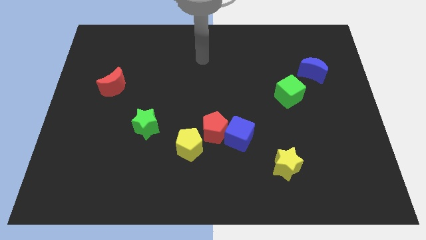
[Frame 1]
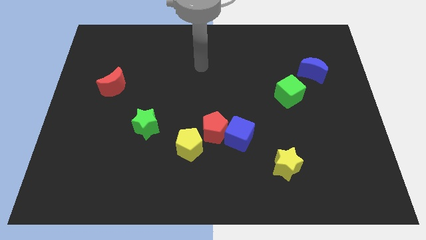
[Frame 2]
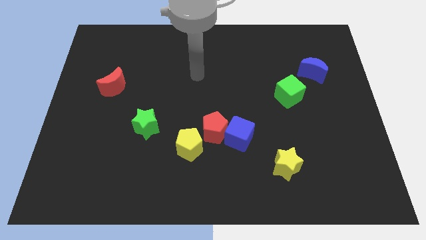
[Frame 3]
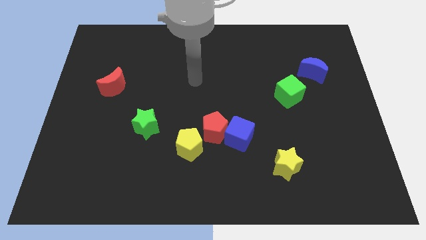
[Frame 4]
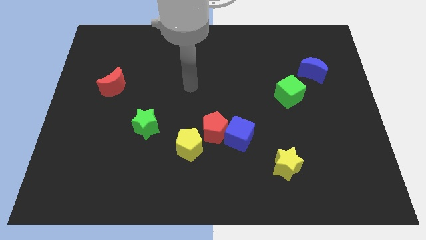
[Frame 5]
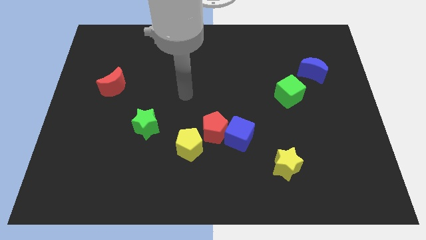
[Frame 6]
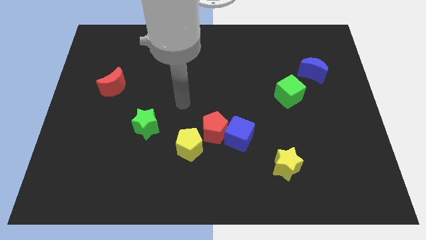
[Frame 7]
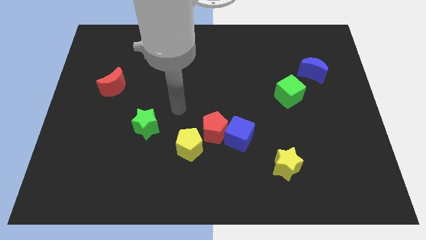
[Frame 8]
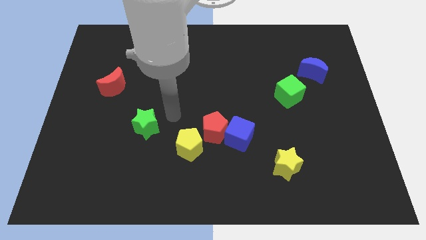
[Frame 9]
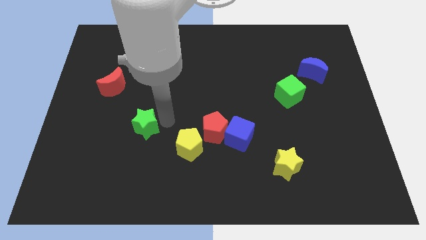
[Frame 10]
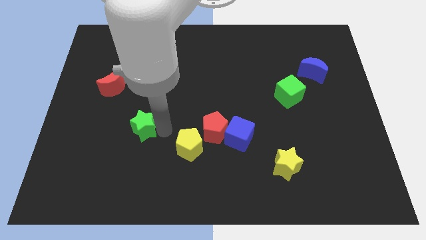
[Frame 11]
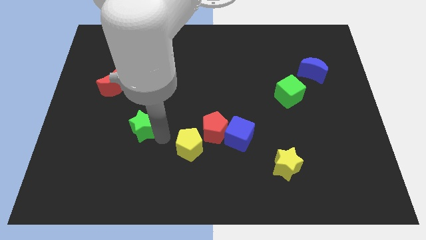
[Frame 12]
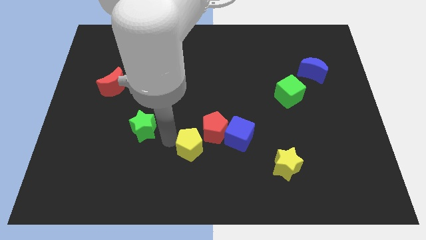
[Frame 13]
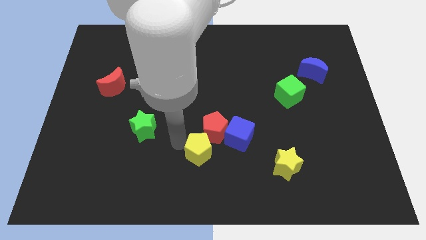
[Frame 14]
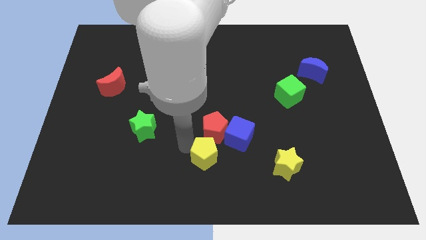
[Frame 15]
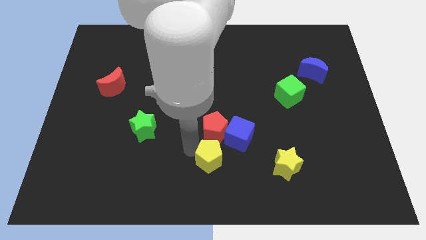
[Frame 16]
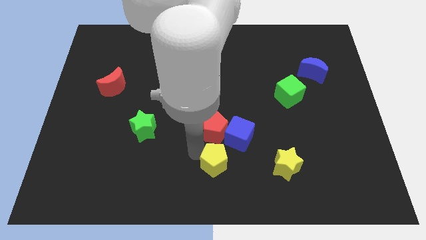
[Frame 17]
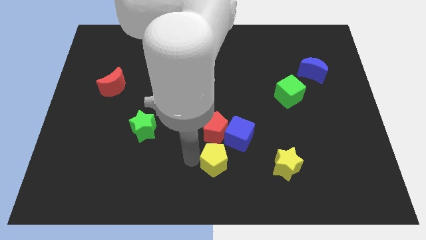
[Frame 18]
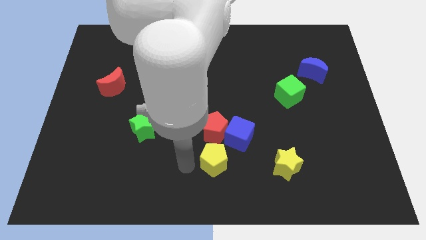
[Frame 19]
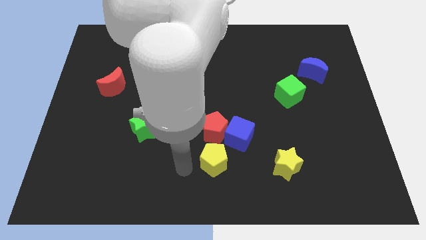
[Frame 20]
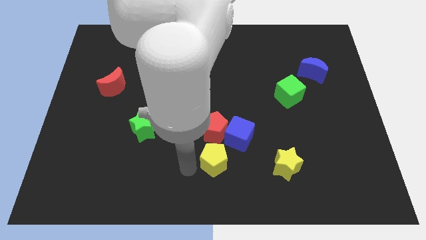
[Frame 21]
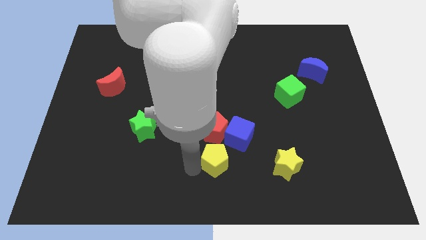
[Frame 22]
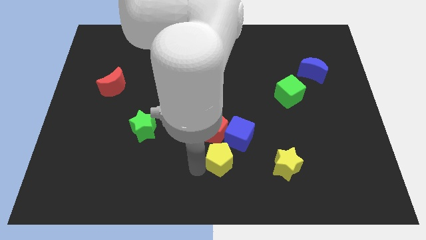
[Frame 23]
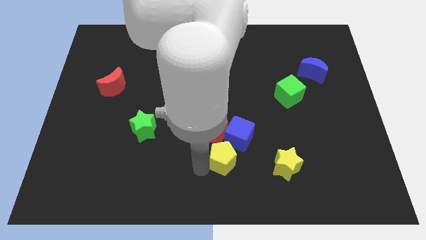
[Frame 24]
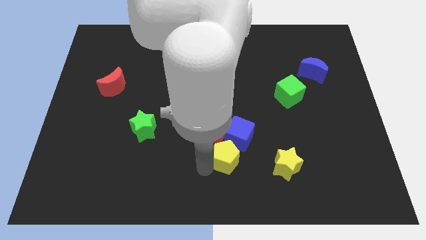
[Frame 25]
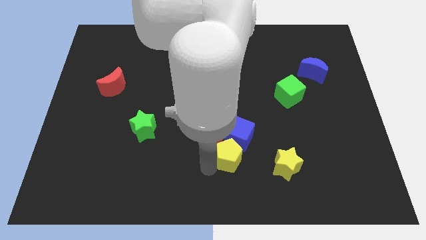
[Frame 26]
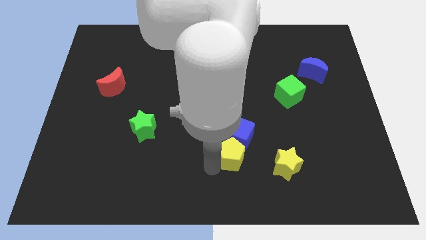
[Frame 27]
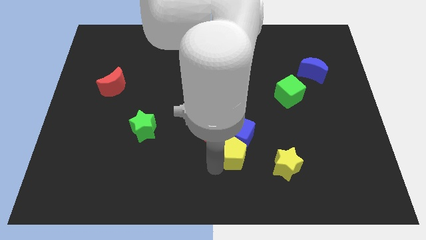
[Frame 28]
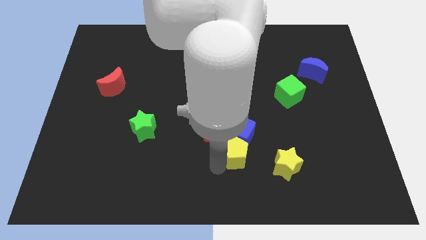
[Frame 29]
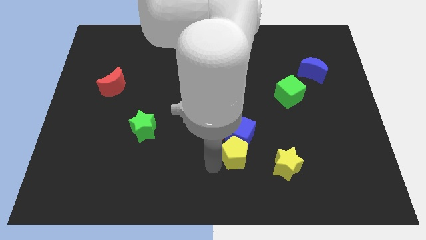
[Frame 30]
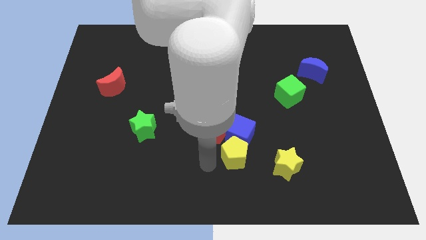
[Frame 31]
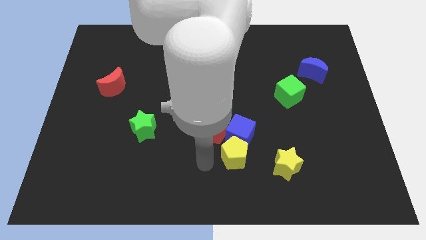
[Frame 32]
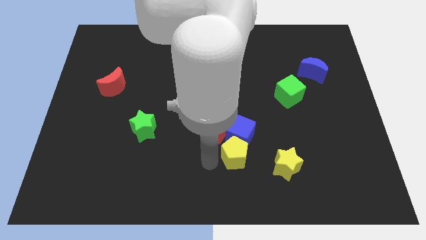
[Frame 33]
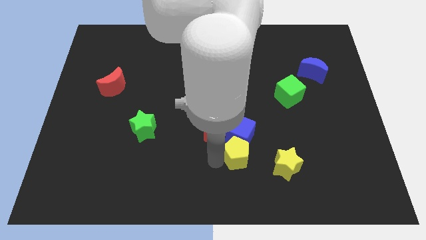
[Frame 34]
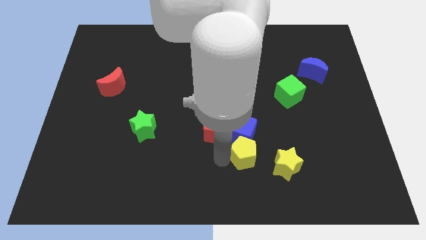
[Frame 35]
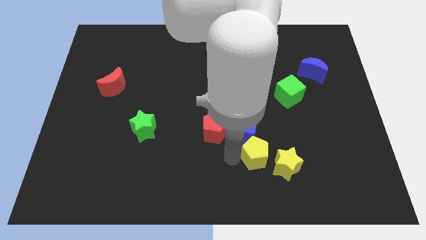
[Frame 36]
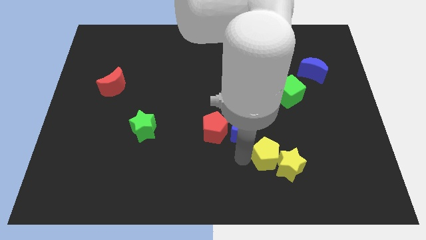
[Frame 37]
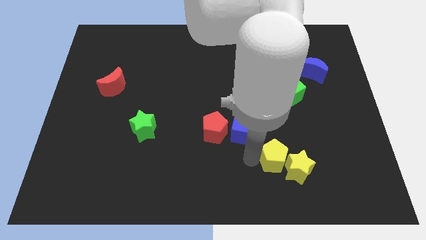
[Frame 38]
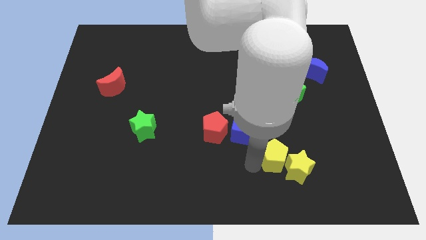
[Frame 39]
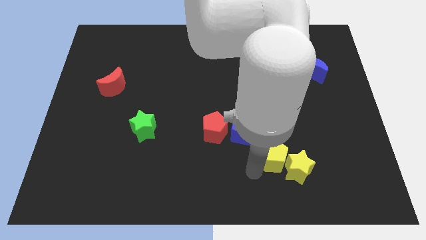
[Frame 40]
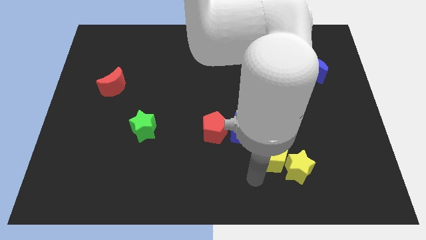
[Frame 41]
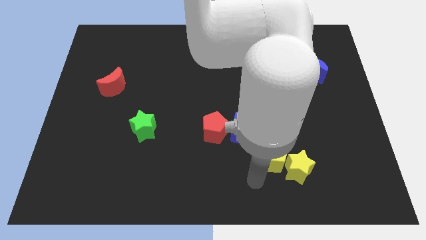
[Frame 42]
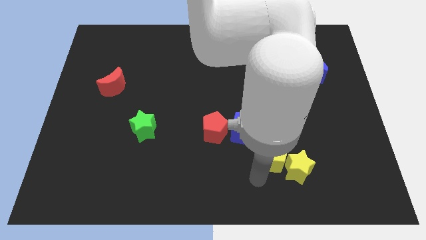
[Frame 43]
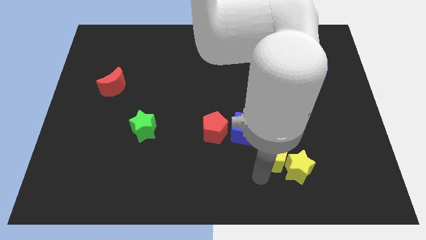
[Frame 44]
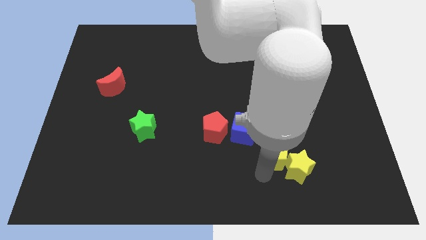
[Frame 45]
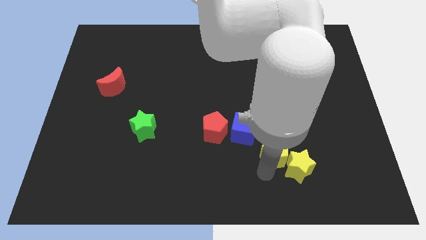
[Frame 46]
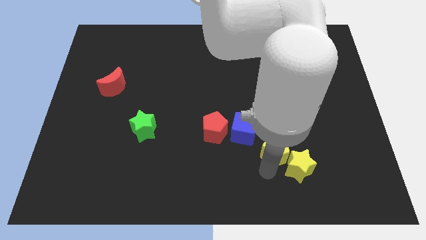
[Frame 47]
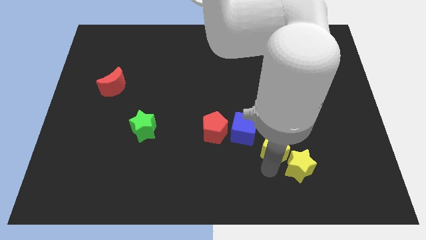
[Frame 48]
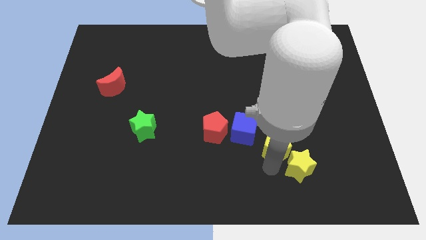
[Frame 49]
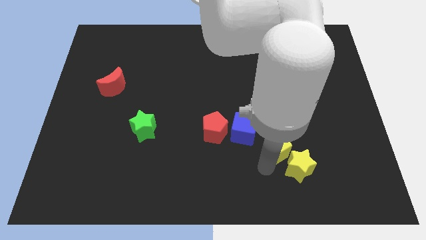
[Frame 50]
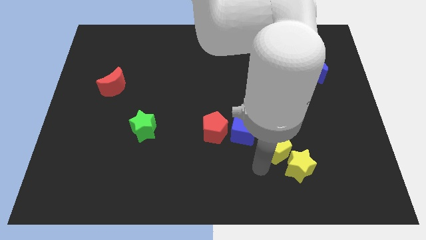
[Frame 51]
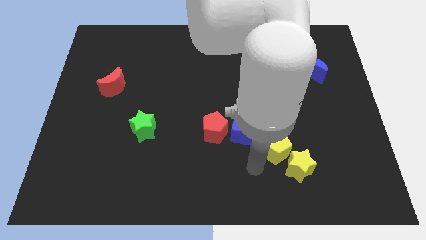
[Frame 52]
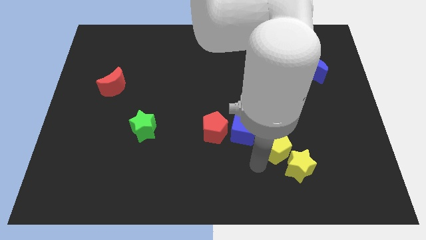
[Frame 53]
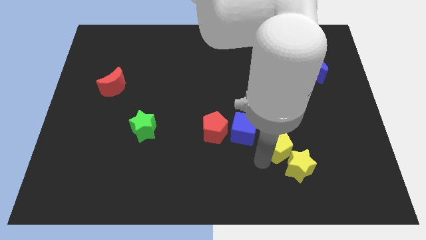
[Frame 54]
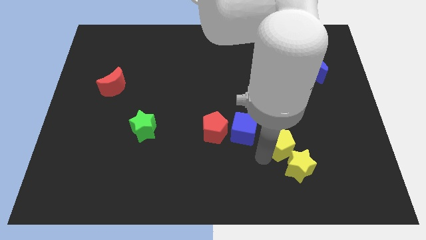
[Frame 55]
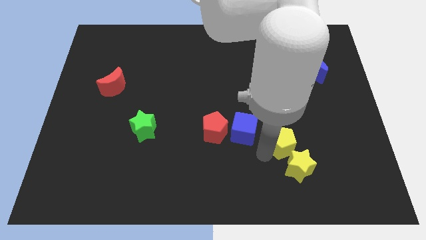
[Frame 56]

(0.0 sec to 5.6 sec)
move the yellow pentagon right

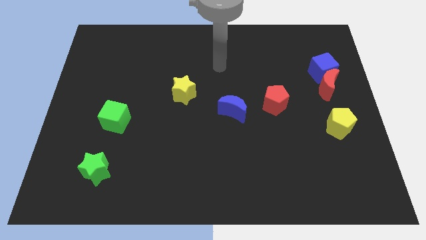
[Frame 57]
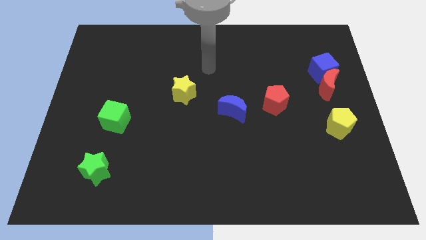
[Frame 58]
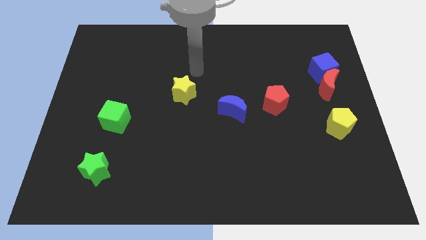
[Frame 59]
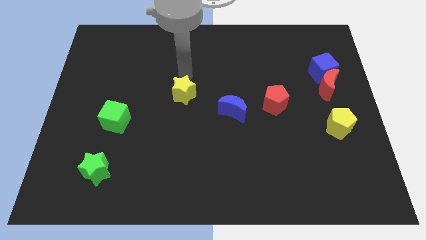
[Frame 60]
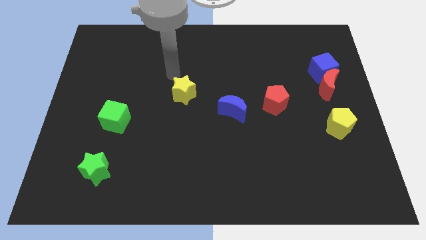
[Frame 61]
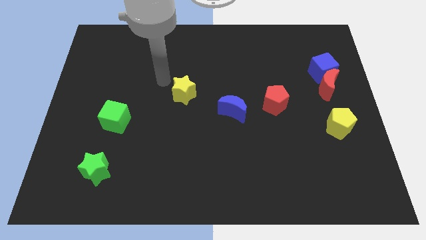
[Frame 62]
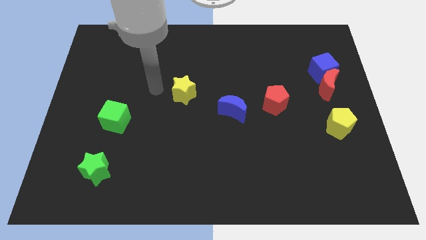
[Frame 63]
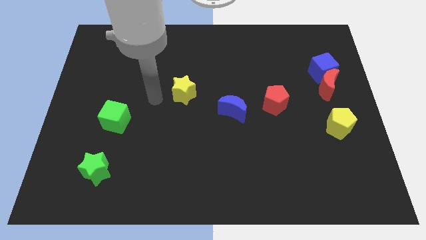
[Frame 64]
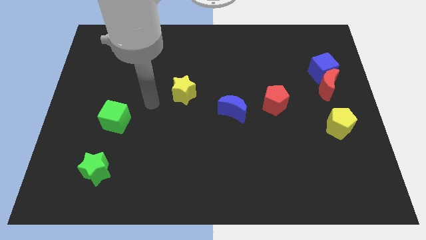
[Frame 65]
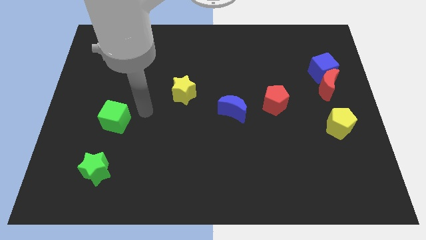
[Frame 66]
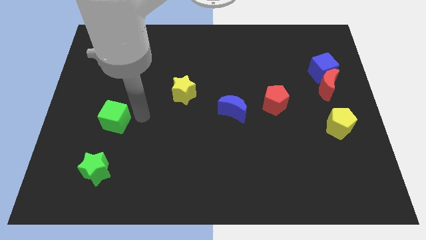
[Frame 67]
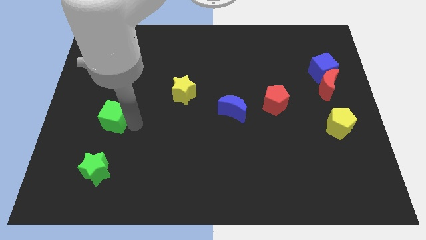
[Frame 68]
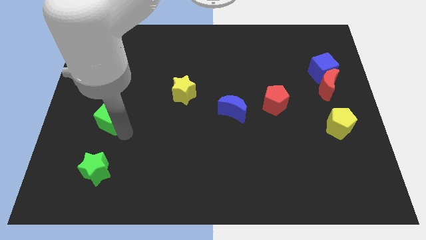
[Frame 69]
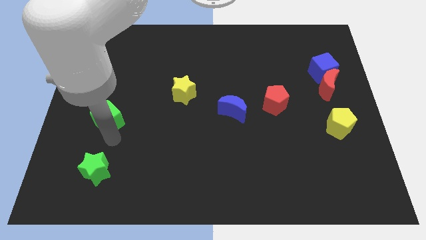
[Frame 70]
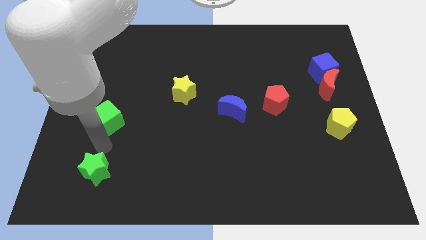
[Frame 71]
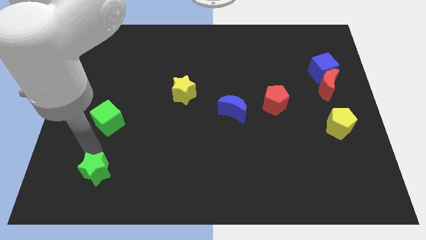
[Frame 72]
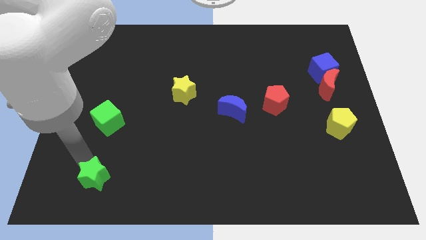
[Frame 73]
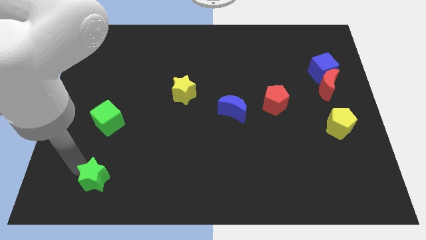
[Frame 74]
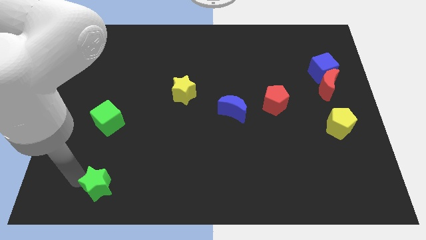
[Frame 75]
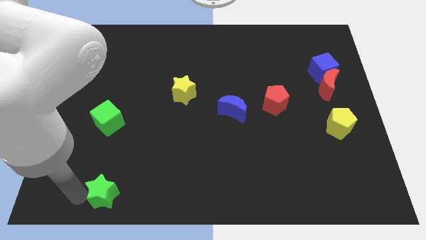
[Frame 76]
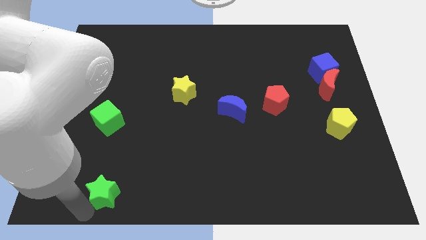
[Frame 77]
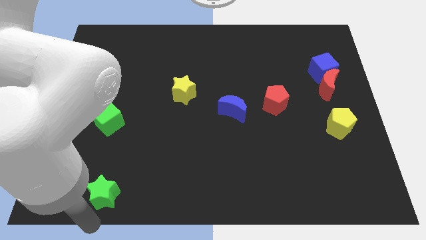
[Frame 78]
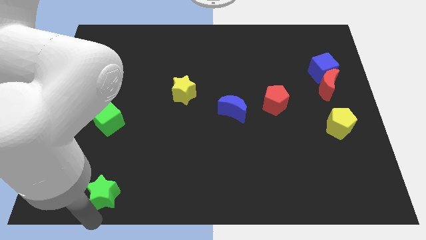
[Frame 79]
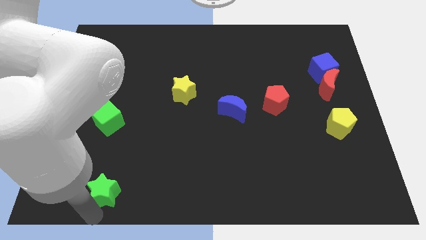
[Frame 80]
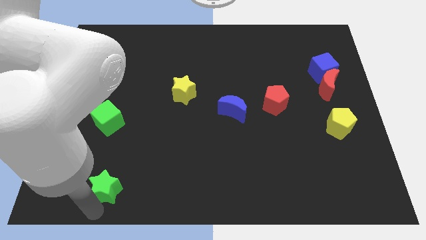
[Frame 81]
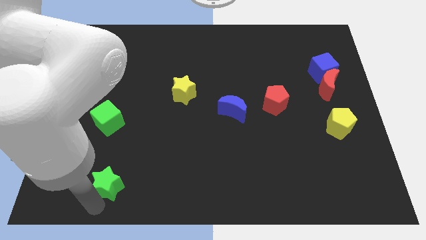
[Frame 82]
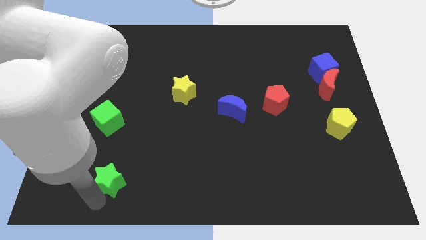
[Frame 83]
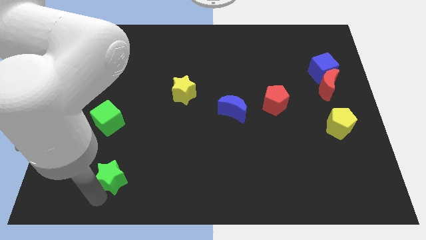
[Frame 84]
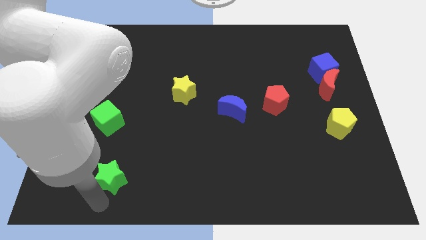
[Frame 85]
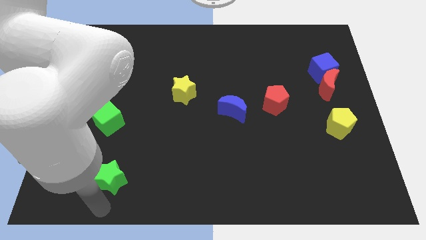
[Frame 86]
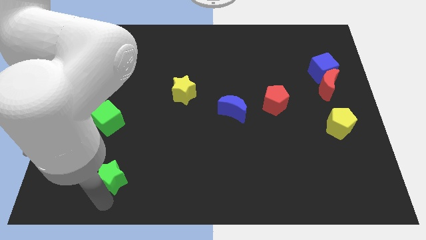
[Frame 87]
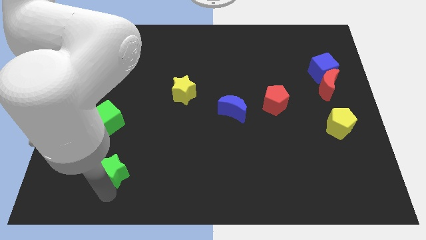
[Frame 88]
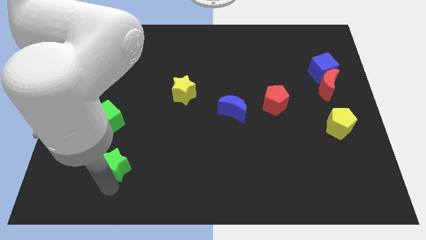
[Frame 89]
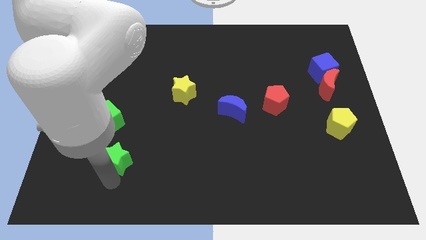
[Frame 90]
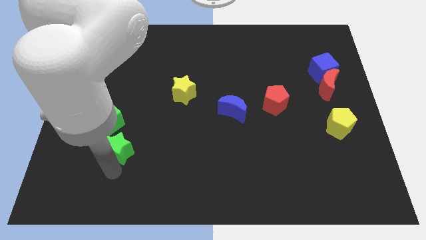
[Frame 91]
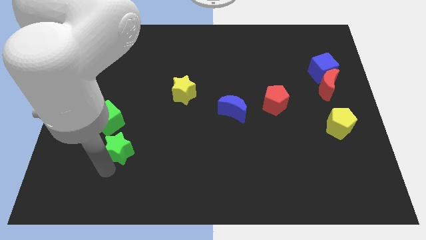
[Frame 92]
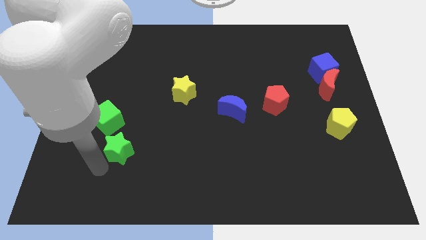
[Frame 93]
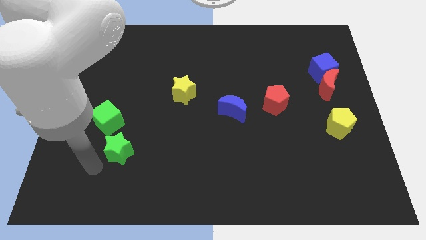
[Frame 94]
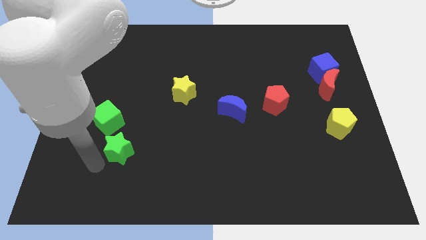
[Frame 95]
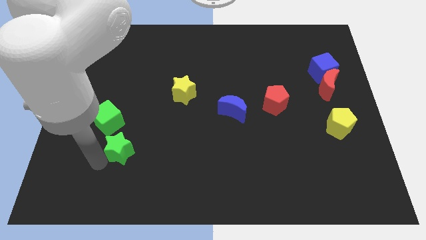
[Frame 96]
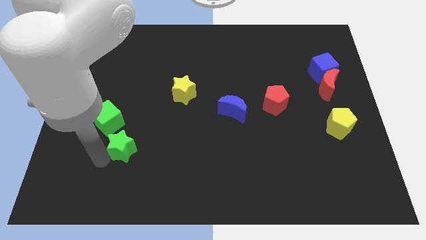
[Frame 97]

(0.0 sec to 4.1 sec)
push the green star somewhat up and right diagonally
